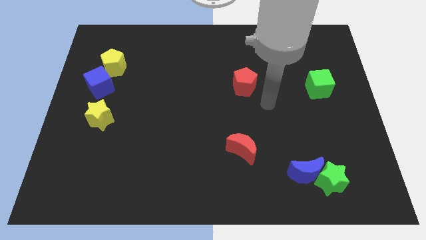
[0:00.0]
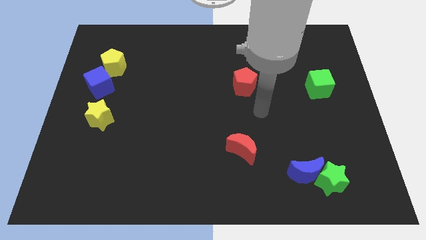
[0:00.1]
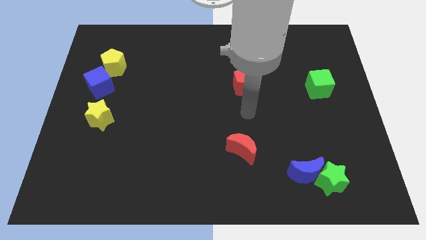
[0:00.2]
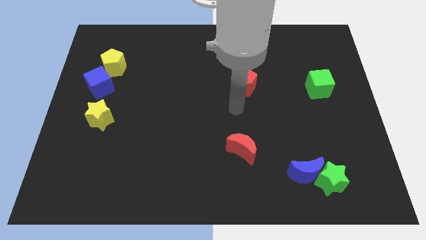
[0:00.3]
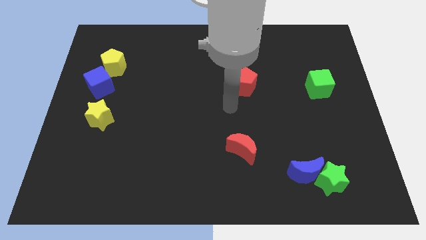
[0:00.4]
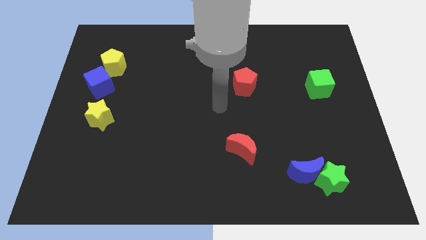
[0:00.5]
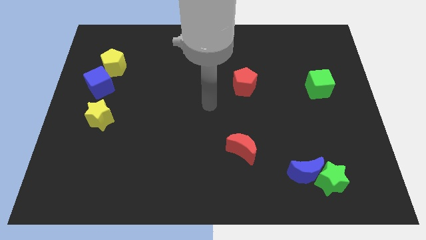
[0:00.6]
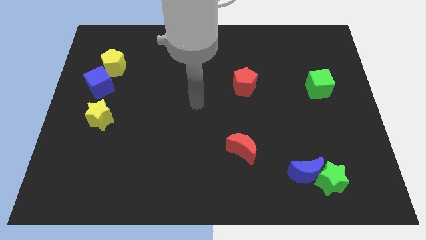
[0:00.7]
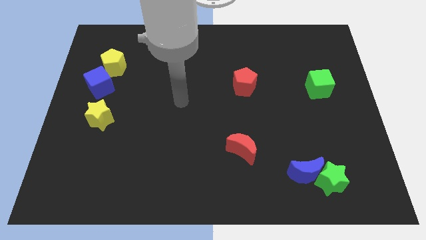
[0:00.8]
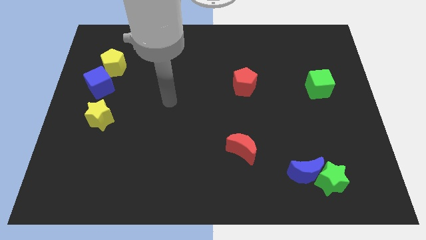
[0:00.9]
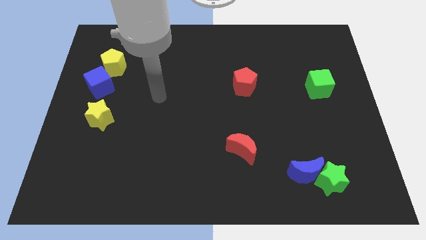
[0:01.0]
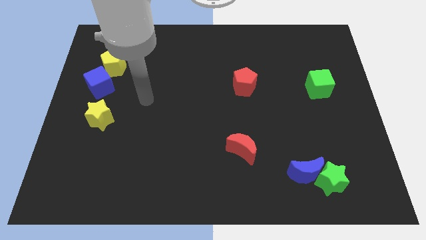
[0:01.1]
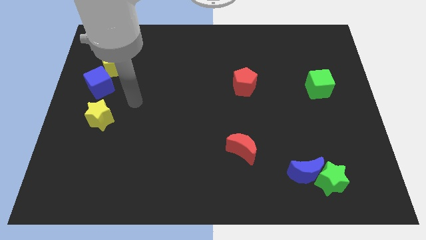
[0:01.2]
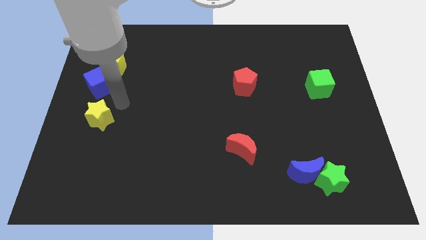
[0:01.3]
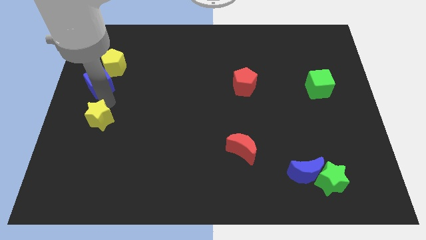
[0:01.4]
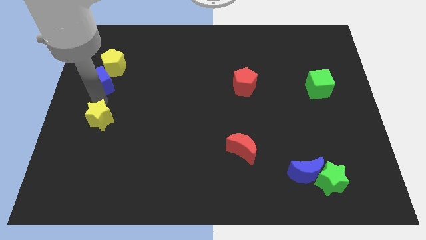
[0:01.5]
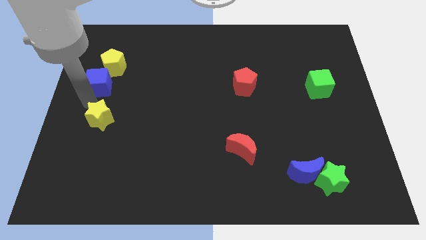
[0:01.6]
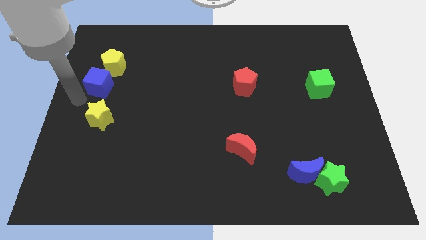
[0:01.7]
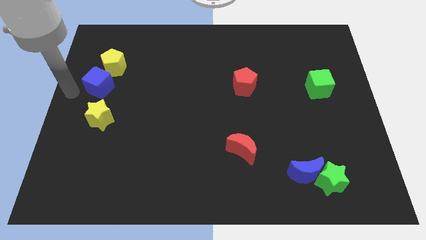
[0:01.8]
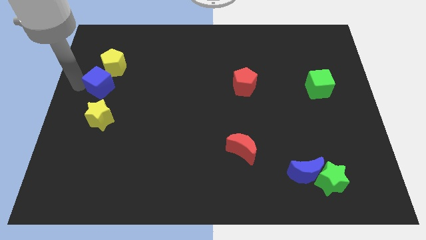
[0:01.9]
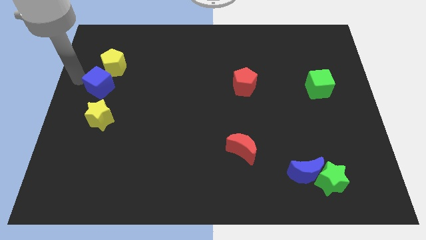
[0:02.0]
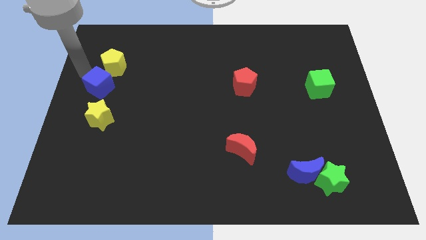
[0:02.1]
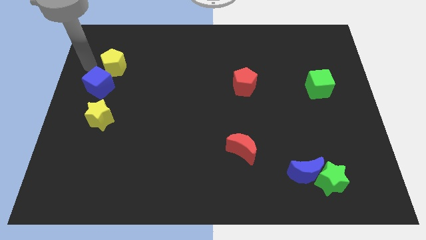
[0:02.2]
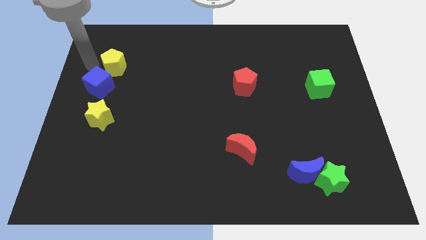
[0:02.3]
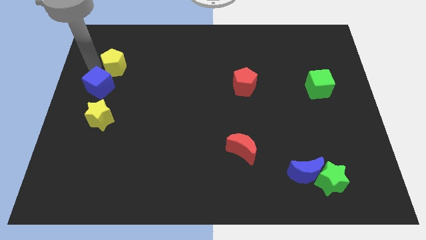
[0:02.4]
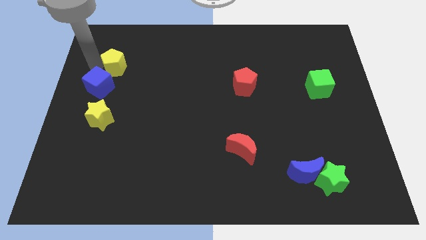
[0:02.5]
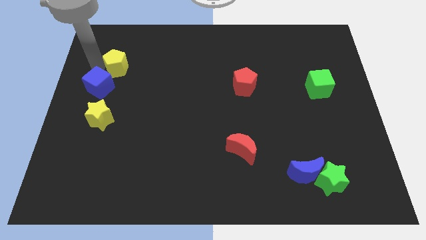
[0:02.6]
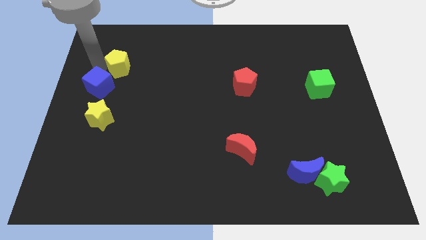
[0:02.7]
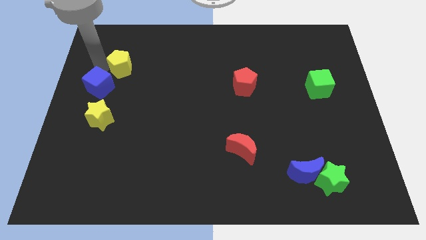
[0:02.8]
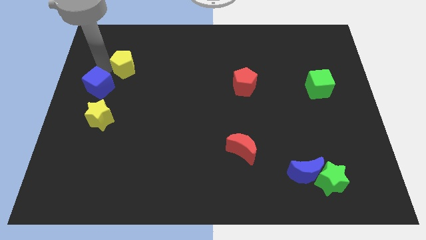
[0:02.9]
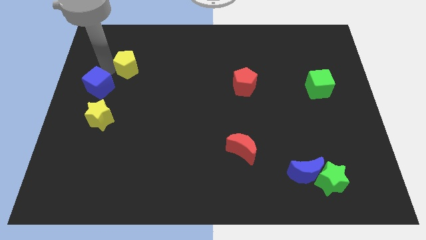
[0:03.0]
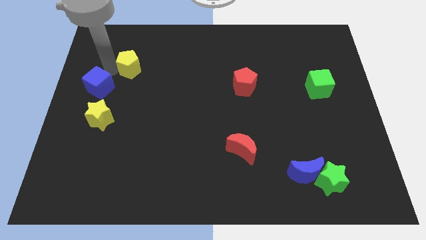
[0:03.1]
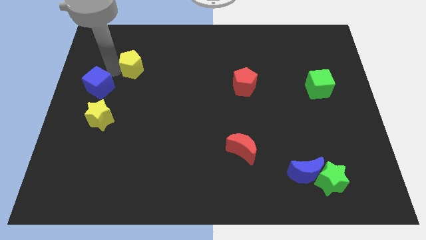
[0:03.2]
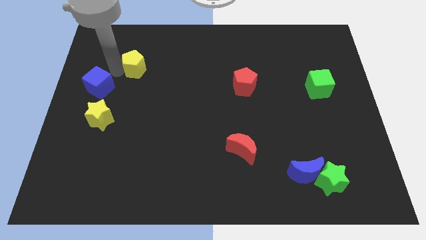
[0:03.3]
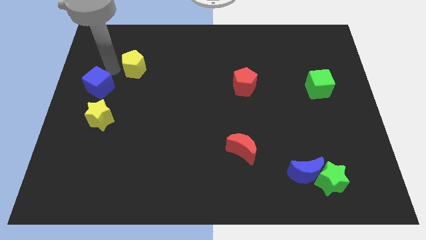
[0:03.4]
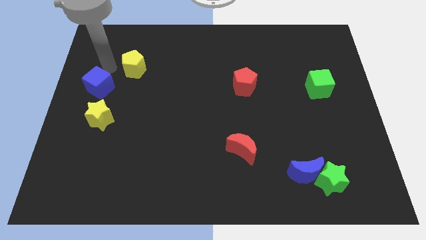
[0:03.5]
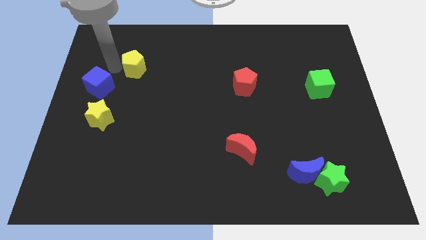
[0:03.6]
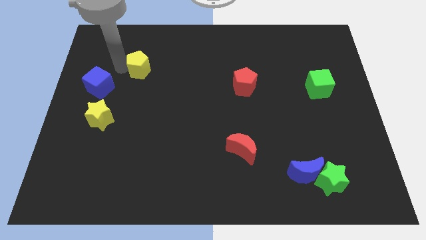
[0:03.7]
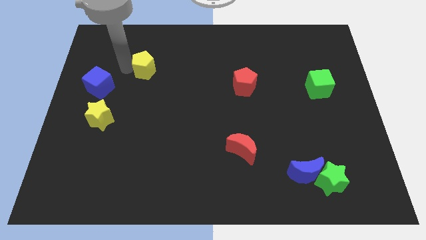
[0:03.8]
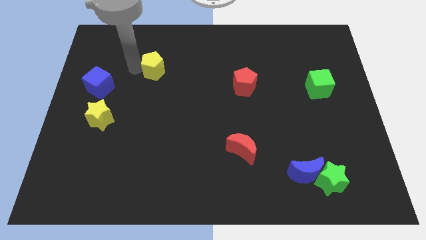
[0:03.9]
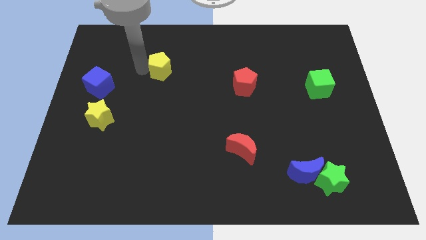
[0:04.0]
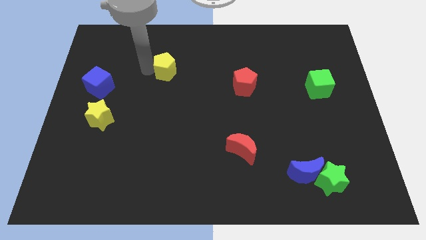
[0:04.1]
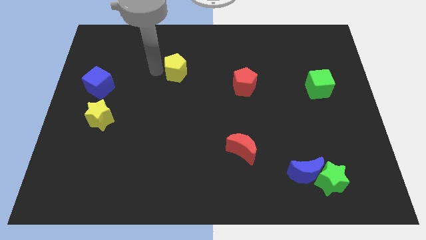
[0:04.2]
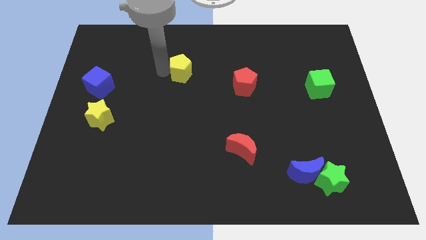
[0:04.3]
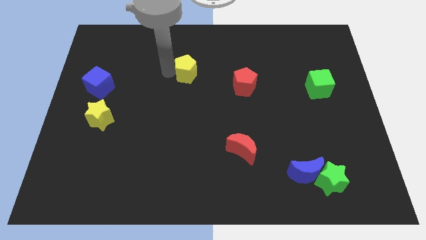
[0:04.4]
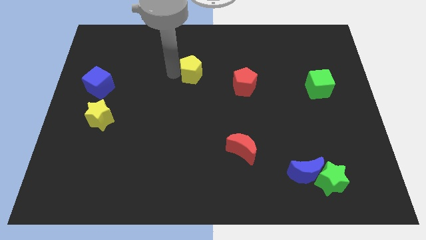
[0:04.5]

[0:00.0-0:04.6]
push the yellow pentagon right

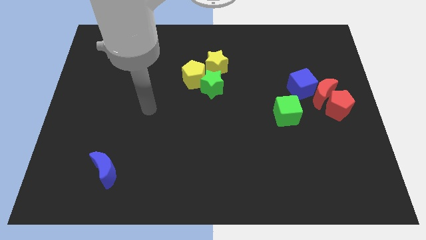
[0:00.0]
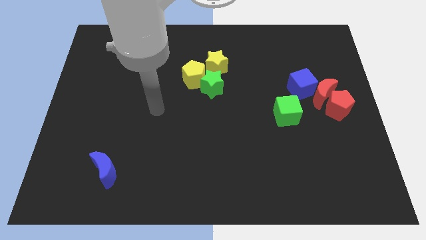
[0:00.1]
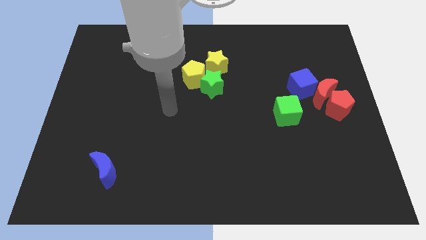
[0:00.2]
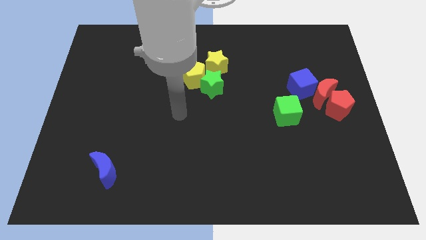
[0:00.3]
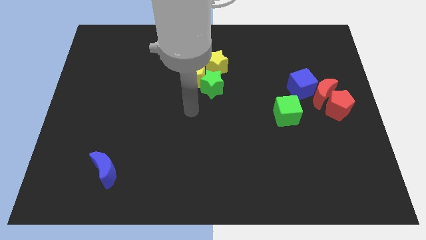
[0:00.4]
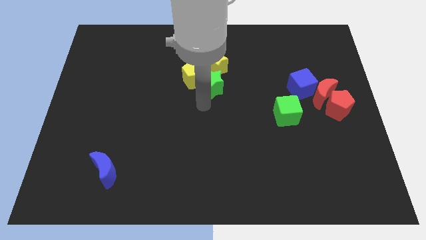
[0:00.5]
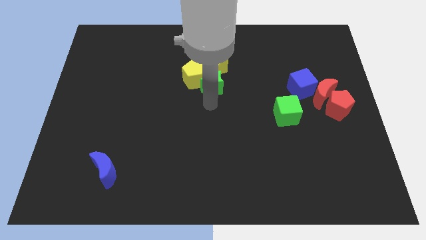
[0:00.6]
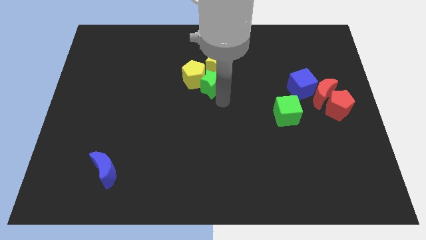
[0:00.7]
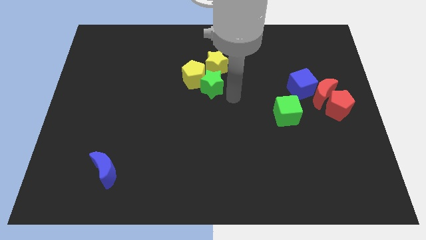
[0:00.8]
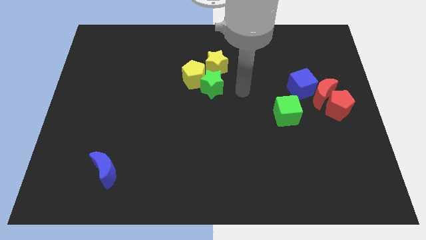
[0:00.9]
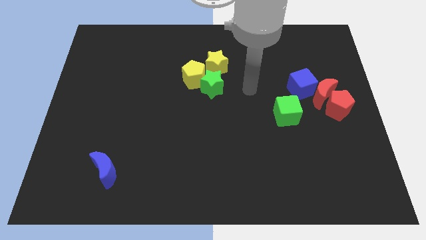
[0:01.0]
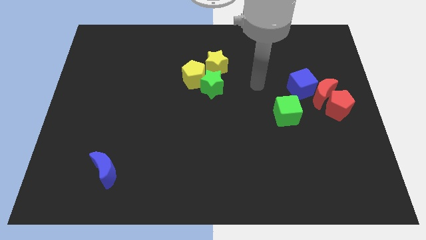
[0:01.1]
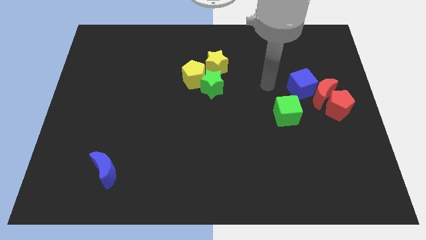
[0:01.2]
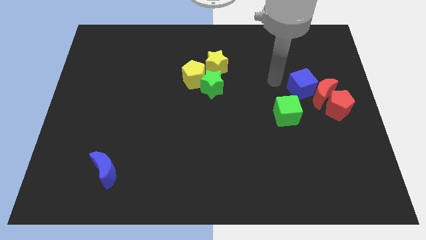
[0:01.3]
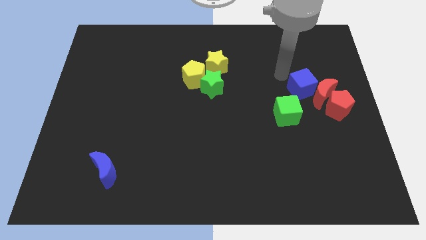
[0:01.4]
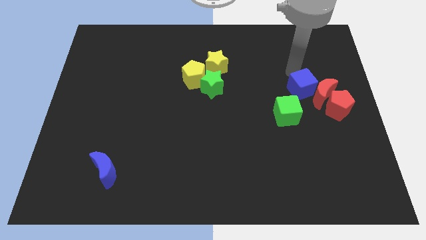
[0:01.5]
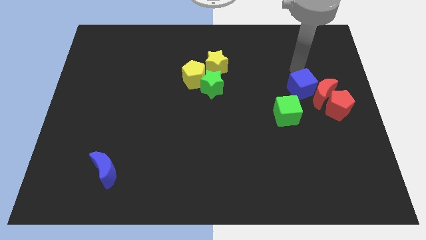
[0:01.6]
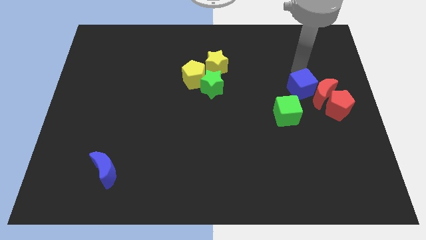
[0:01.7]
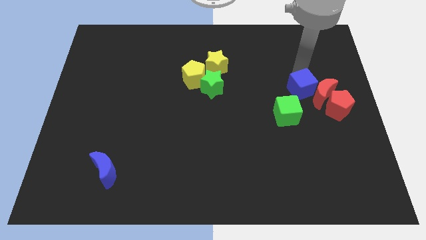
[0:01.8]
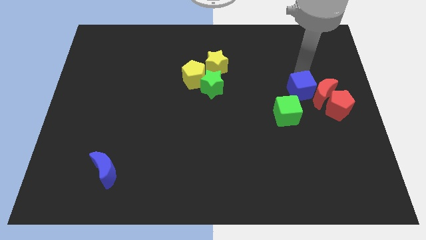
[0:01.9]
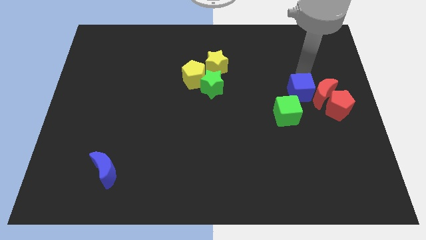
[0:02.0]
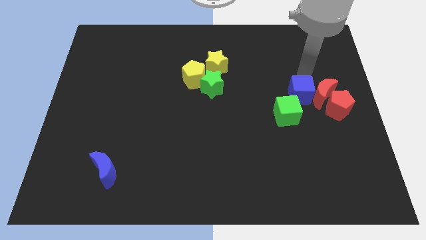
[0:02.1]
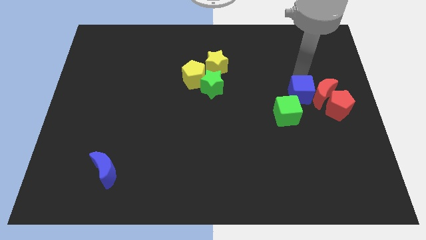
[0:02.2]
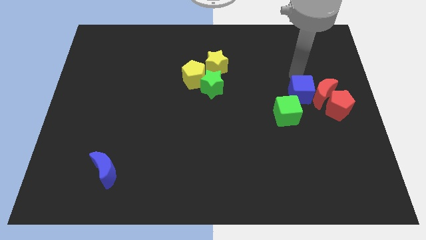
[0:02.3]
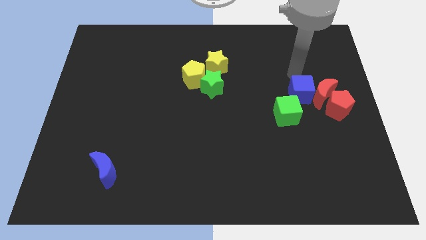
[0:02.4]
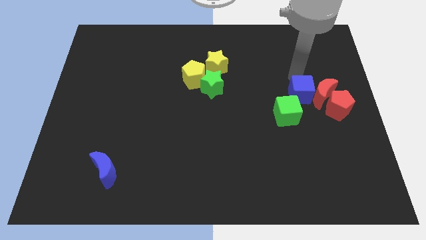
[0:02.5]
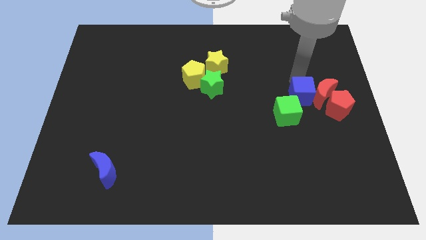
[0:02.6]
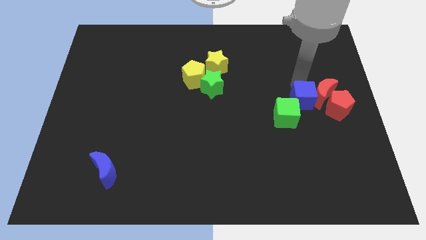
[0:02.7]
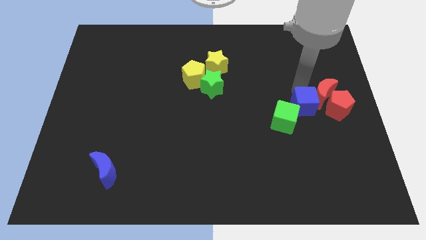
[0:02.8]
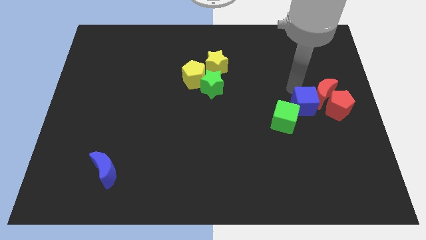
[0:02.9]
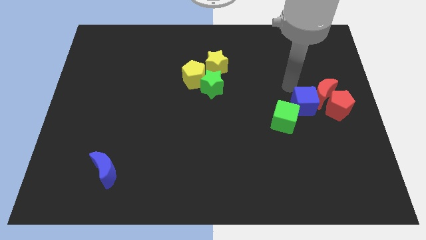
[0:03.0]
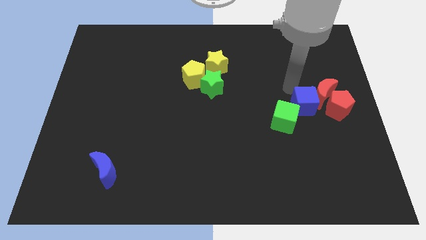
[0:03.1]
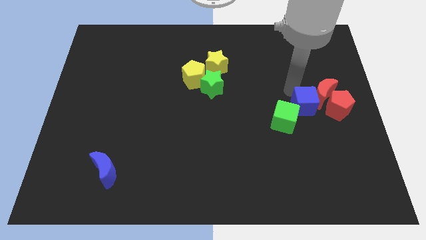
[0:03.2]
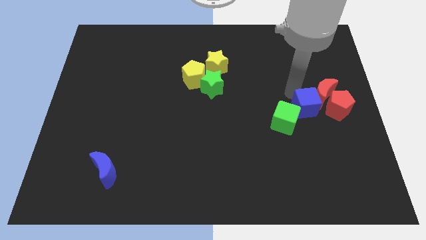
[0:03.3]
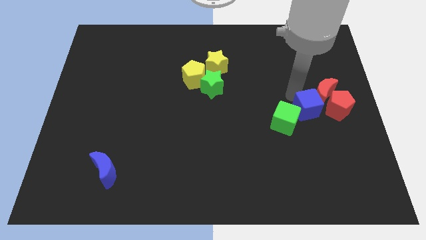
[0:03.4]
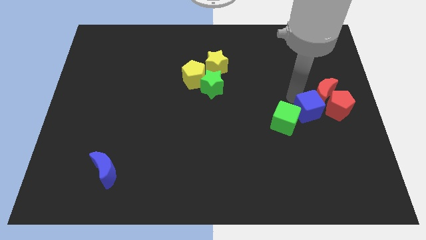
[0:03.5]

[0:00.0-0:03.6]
slide the blue cube a bit down
